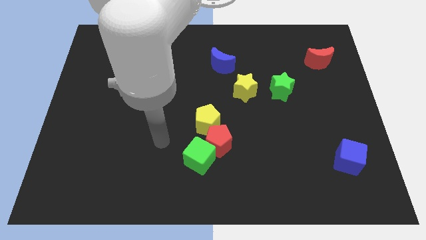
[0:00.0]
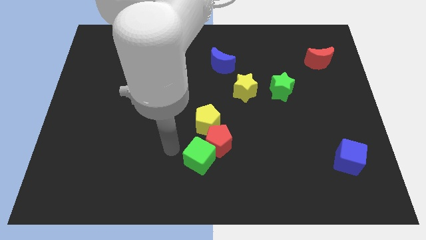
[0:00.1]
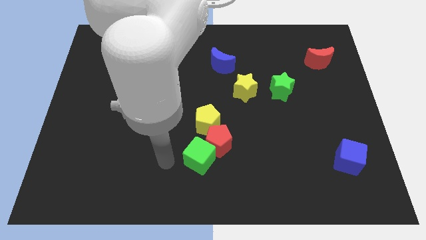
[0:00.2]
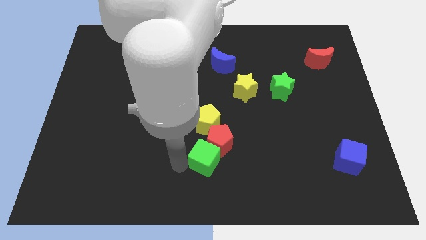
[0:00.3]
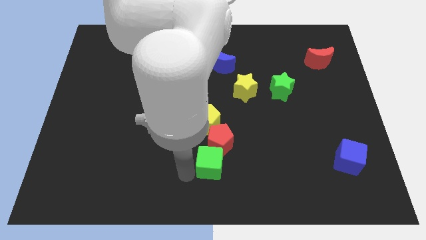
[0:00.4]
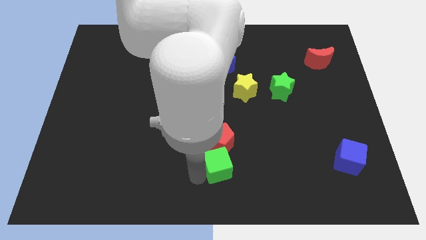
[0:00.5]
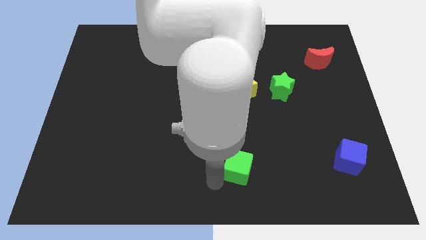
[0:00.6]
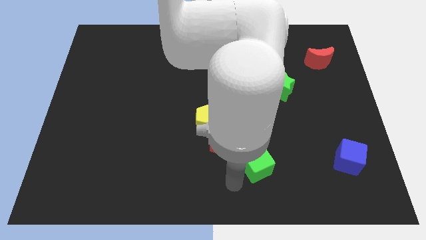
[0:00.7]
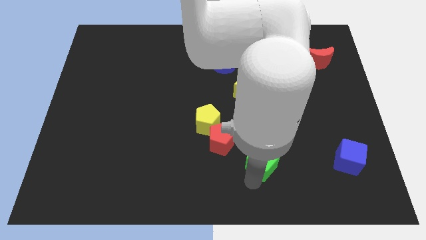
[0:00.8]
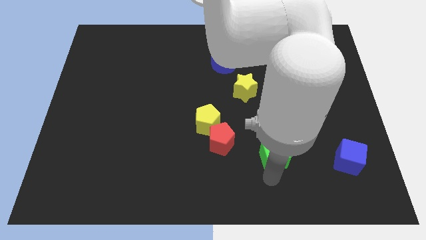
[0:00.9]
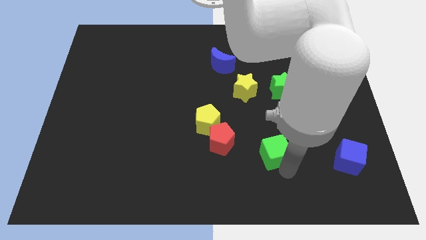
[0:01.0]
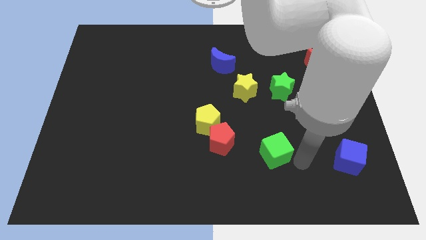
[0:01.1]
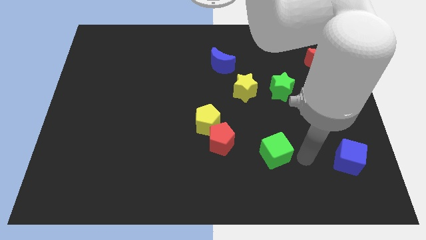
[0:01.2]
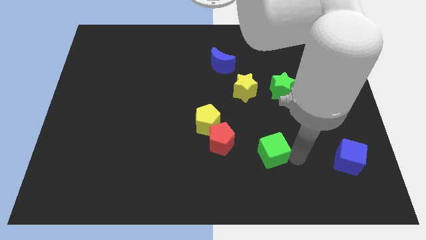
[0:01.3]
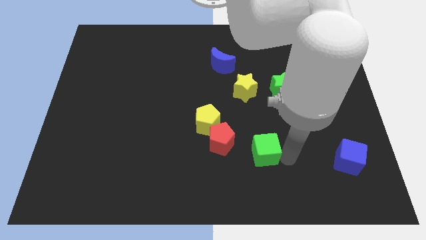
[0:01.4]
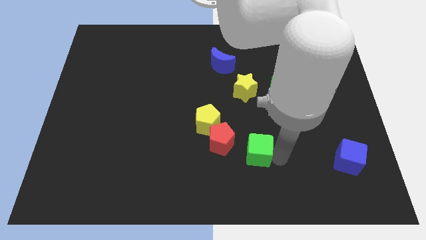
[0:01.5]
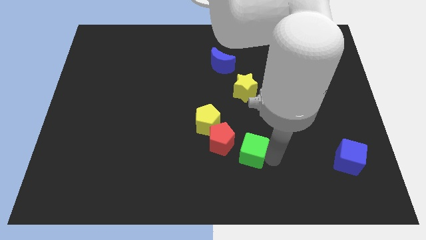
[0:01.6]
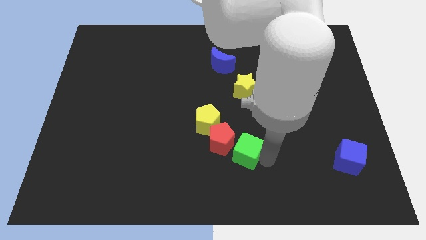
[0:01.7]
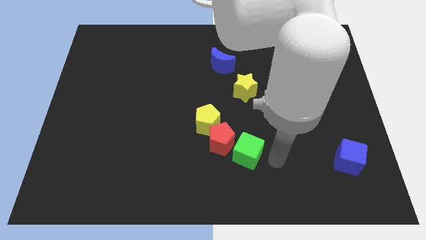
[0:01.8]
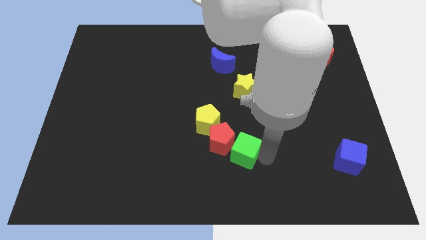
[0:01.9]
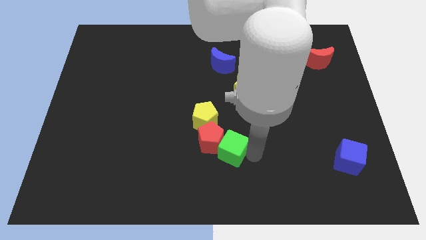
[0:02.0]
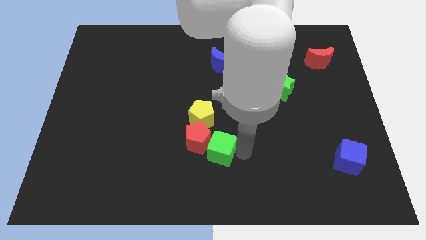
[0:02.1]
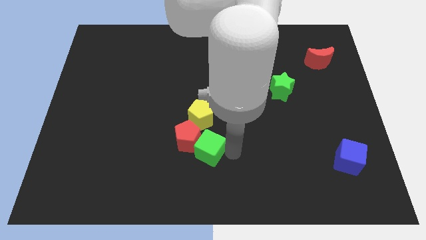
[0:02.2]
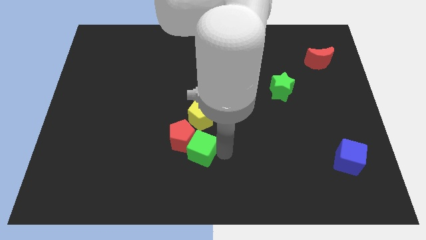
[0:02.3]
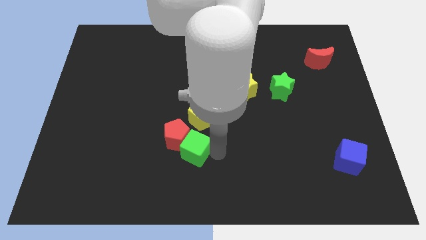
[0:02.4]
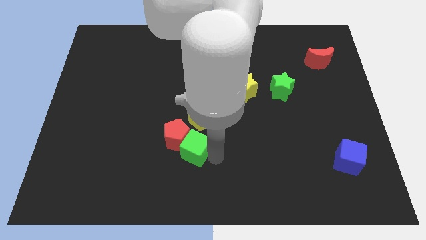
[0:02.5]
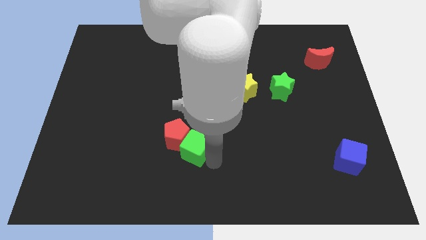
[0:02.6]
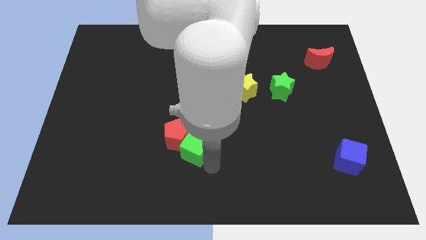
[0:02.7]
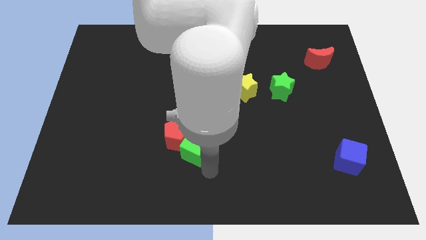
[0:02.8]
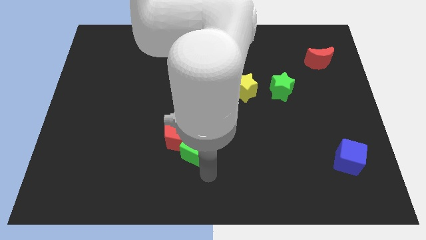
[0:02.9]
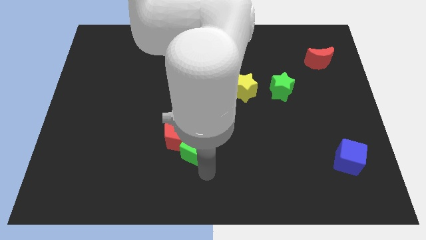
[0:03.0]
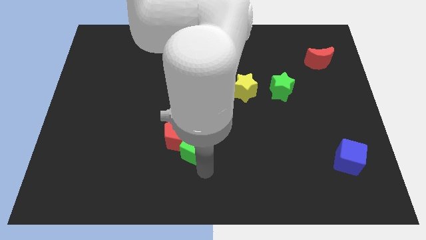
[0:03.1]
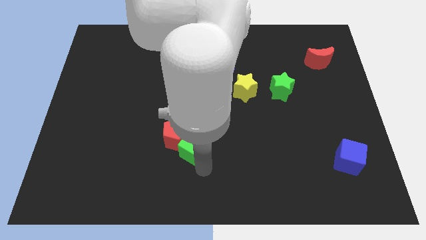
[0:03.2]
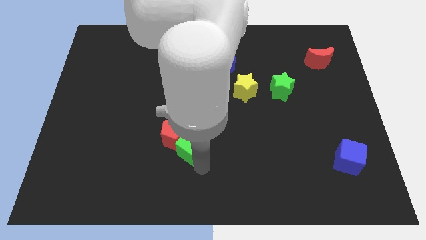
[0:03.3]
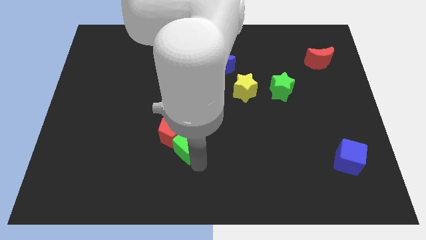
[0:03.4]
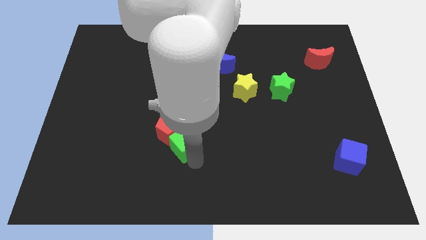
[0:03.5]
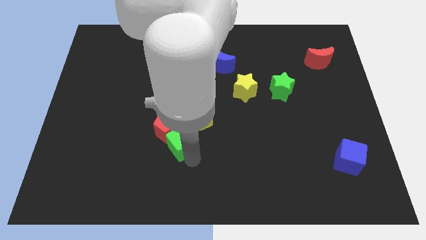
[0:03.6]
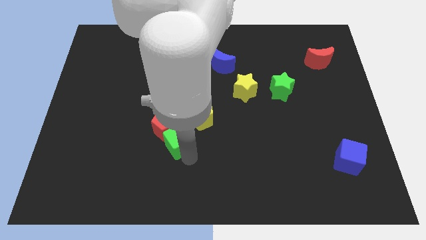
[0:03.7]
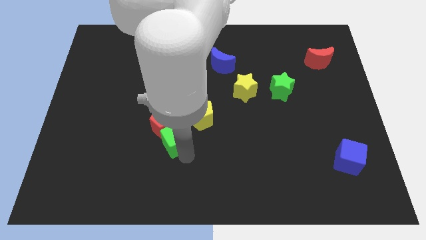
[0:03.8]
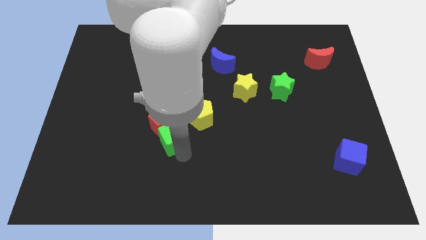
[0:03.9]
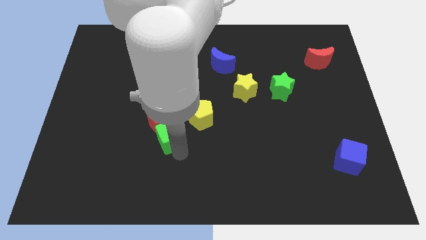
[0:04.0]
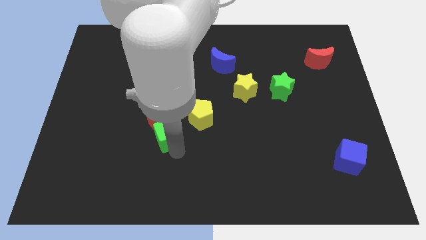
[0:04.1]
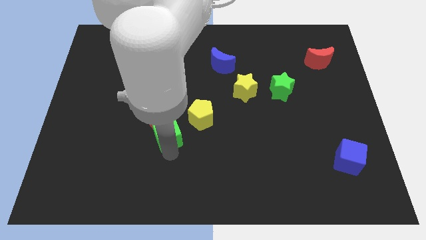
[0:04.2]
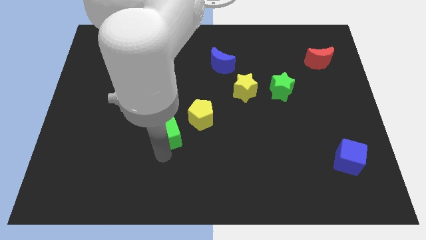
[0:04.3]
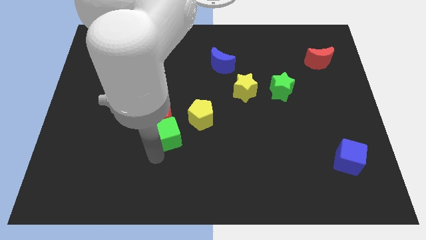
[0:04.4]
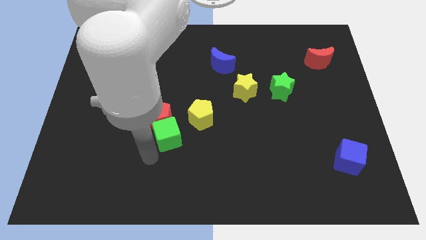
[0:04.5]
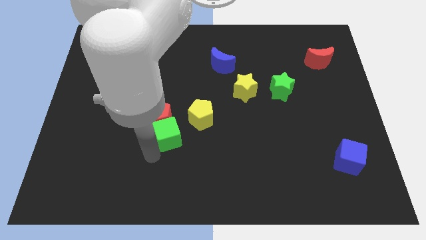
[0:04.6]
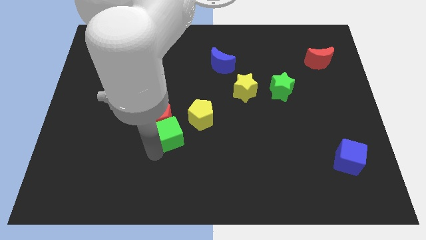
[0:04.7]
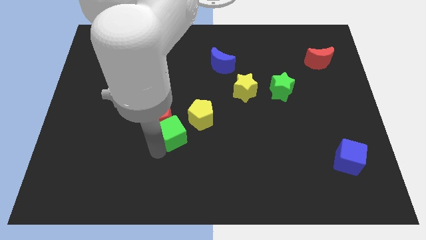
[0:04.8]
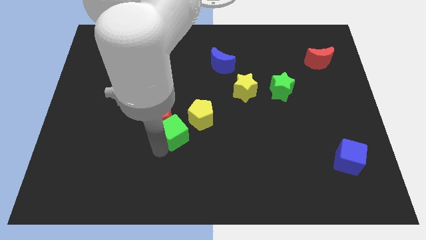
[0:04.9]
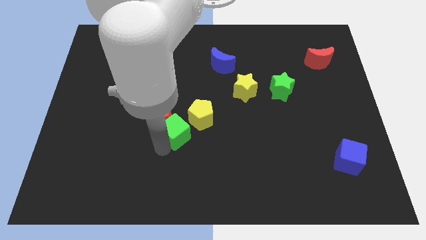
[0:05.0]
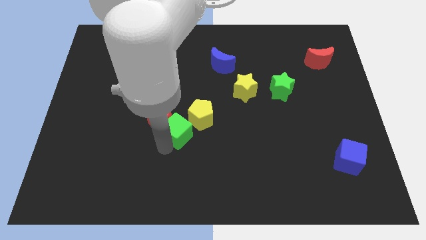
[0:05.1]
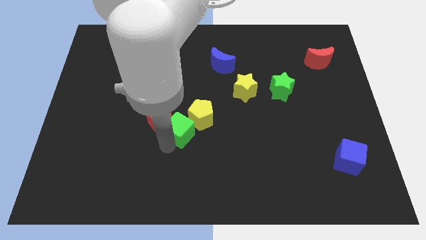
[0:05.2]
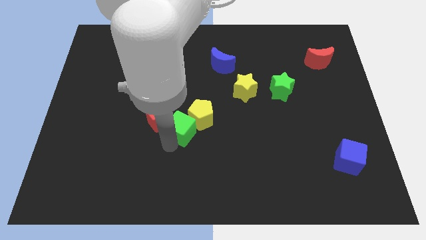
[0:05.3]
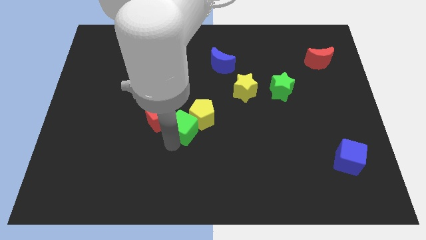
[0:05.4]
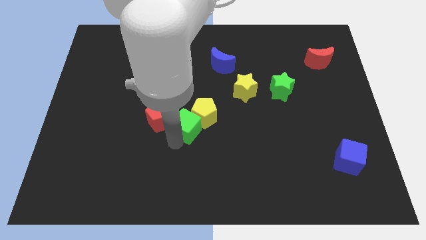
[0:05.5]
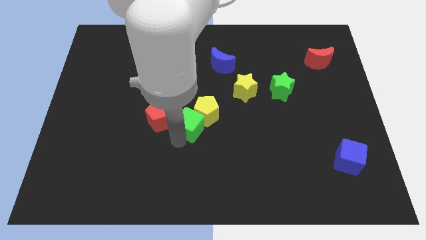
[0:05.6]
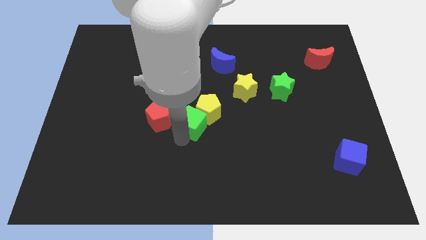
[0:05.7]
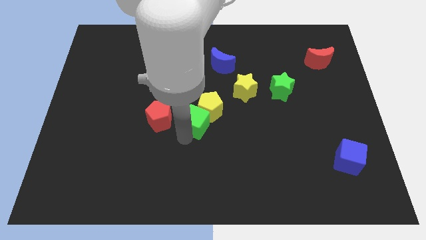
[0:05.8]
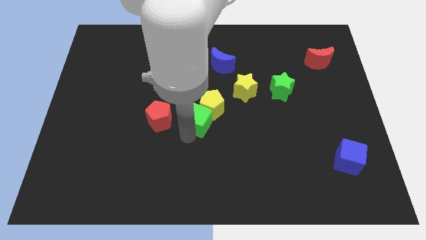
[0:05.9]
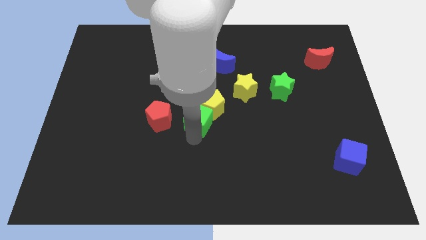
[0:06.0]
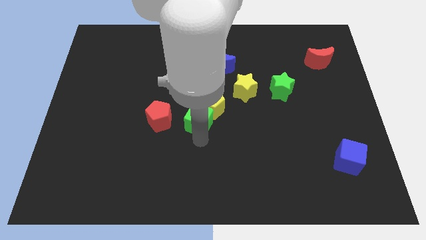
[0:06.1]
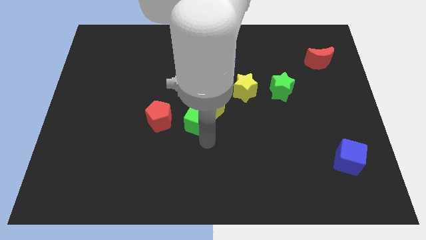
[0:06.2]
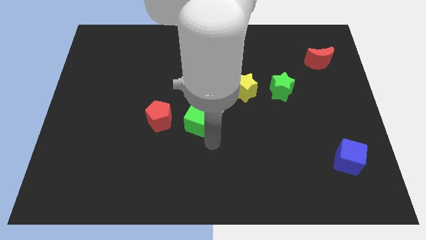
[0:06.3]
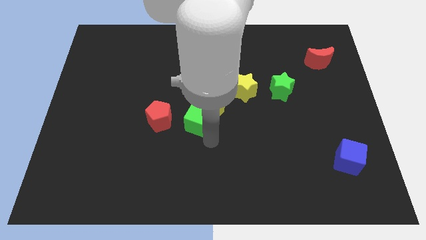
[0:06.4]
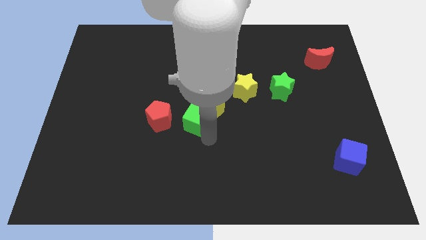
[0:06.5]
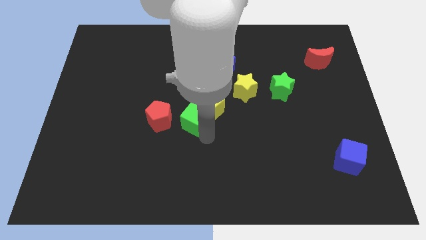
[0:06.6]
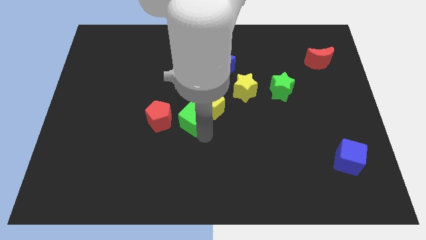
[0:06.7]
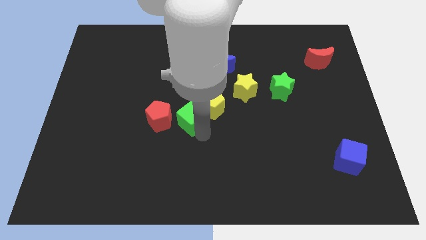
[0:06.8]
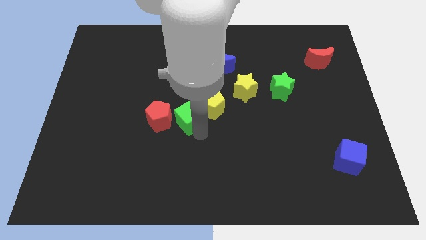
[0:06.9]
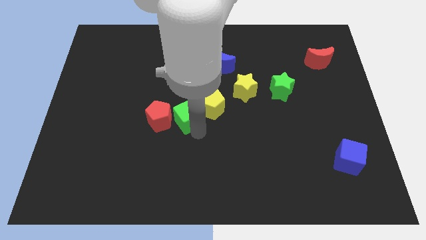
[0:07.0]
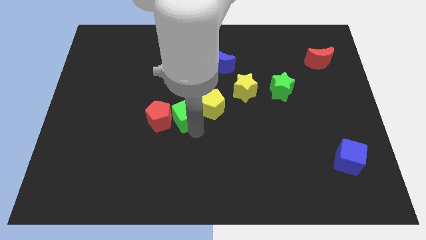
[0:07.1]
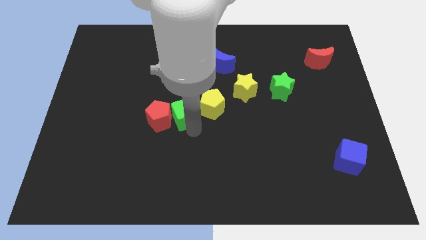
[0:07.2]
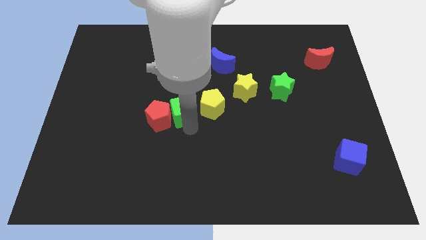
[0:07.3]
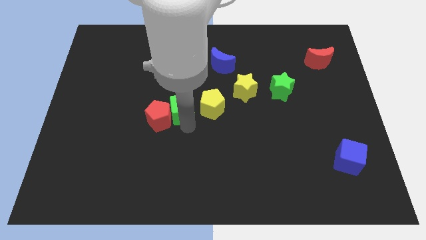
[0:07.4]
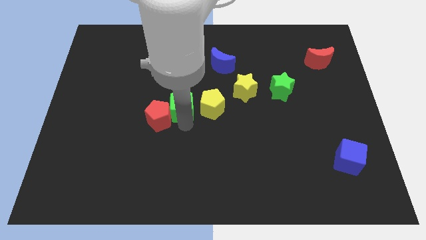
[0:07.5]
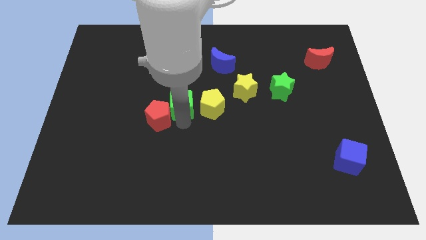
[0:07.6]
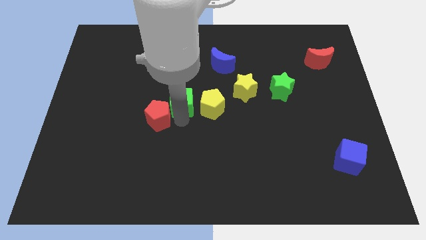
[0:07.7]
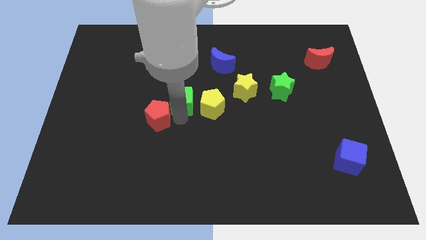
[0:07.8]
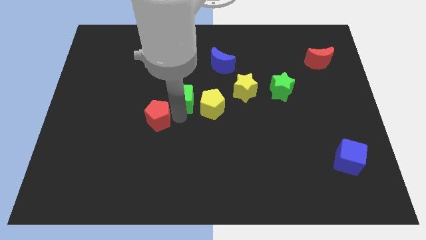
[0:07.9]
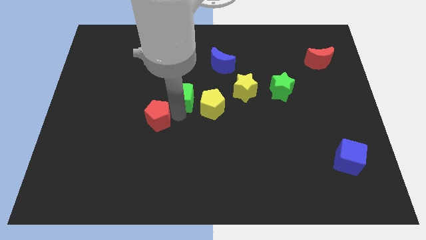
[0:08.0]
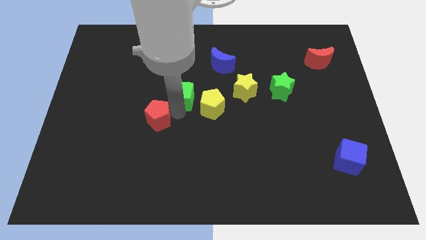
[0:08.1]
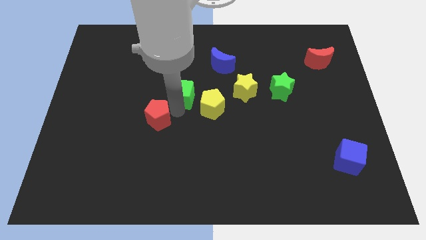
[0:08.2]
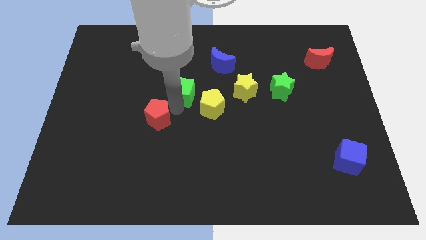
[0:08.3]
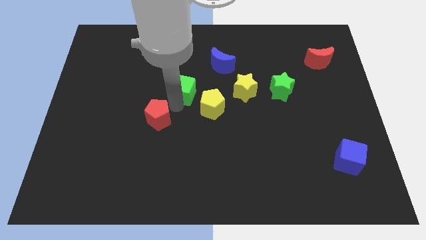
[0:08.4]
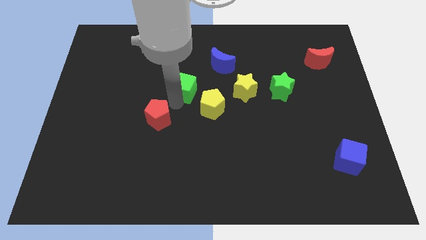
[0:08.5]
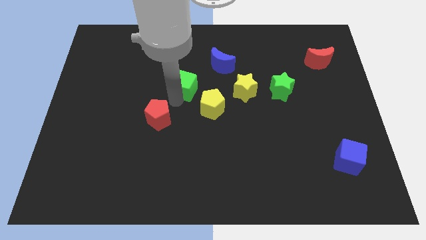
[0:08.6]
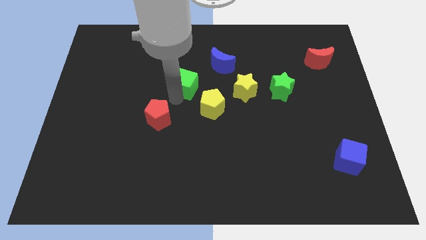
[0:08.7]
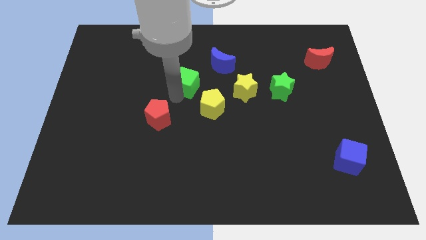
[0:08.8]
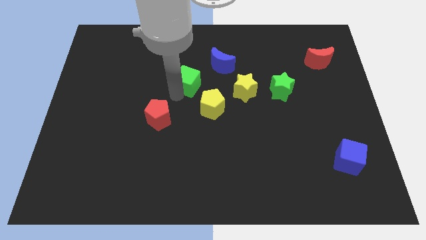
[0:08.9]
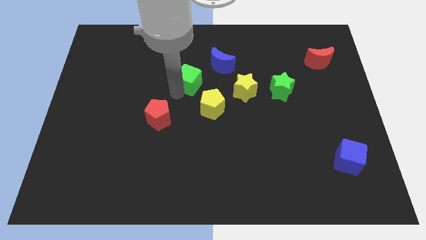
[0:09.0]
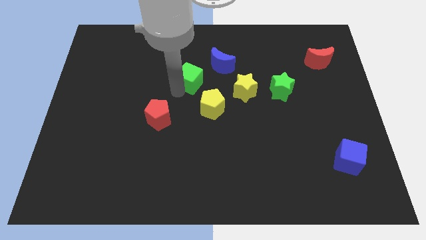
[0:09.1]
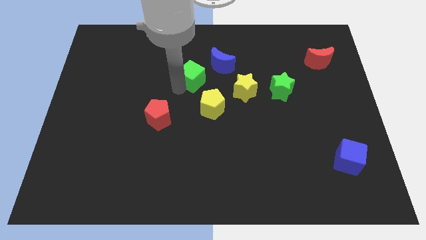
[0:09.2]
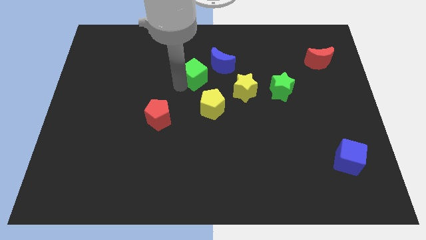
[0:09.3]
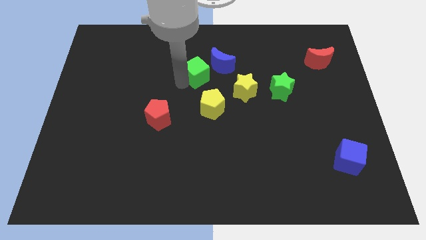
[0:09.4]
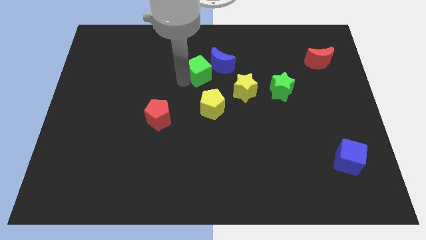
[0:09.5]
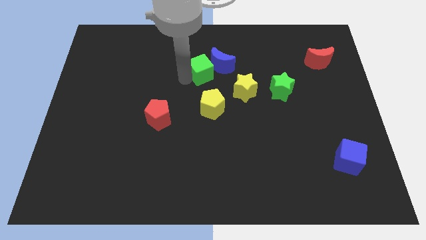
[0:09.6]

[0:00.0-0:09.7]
move the green cube to the blue moon
